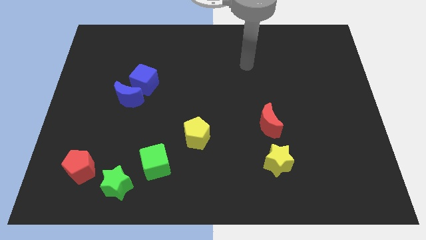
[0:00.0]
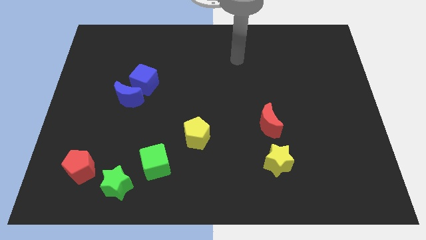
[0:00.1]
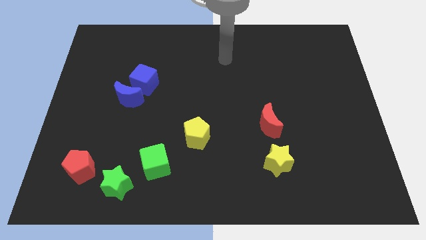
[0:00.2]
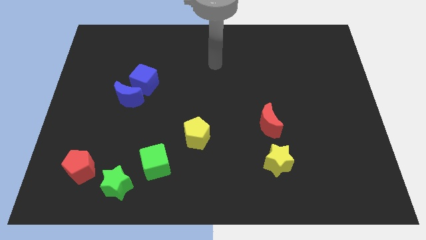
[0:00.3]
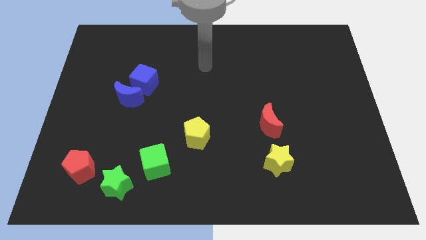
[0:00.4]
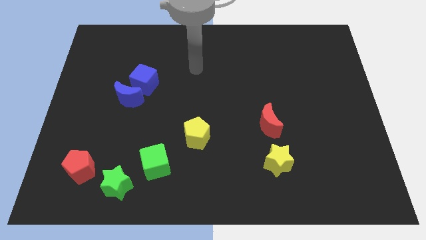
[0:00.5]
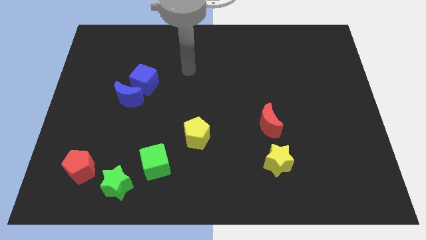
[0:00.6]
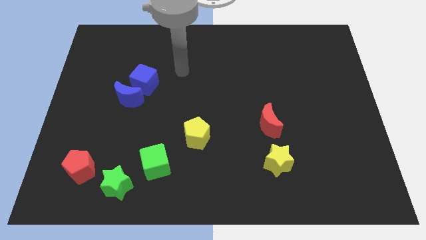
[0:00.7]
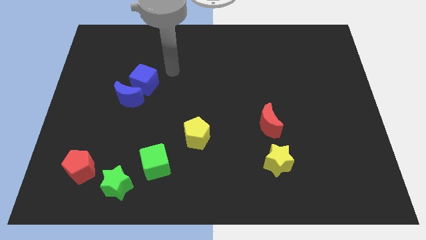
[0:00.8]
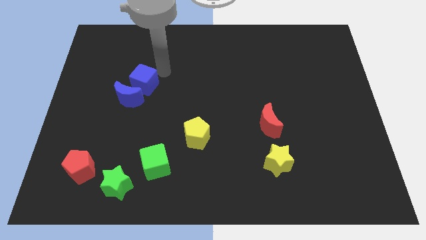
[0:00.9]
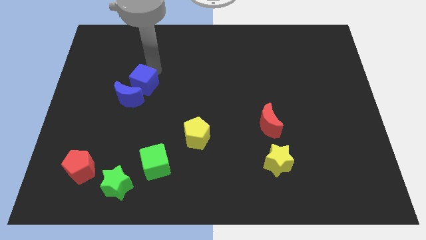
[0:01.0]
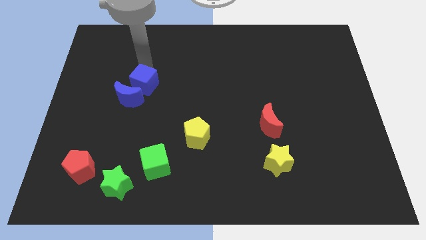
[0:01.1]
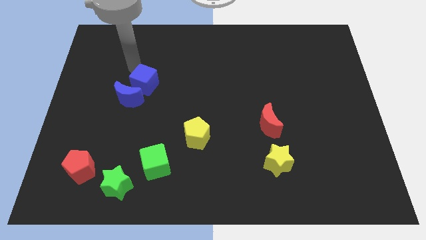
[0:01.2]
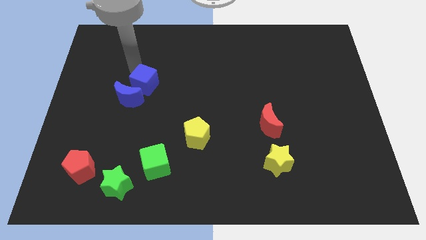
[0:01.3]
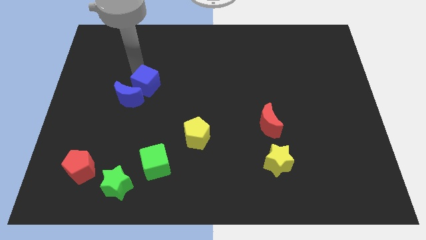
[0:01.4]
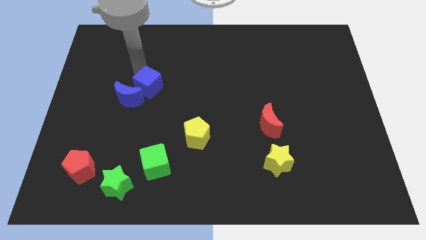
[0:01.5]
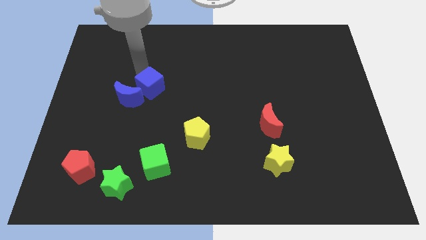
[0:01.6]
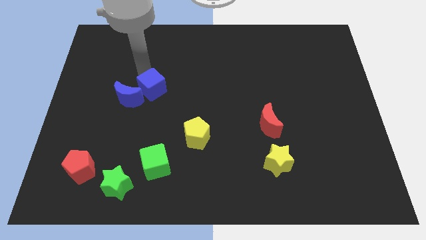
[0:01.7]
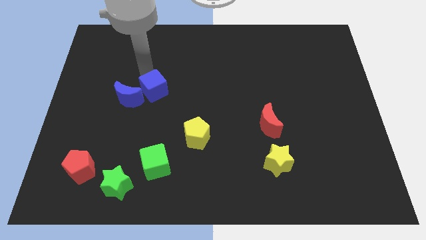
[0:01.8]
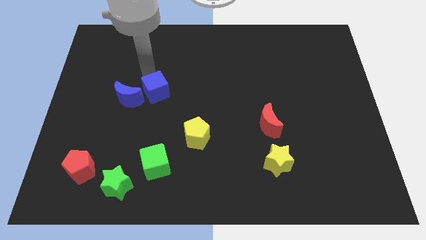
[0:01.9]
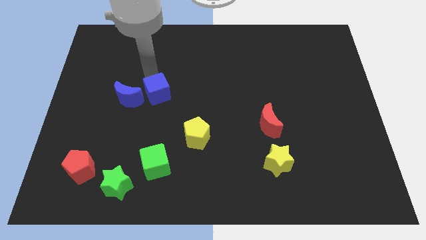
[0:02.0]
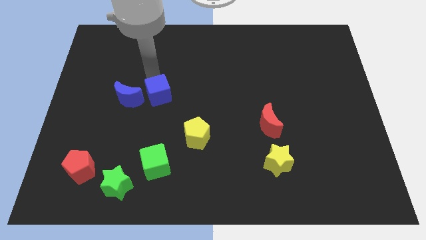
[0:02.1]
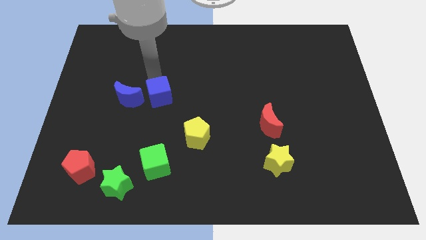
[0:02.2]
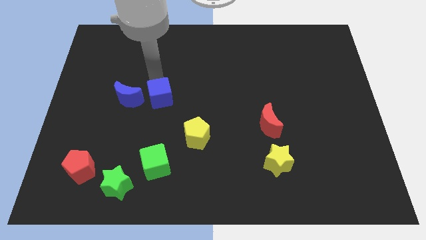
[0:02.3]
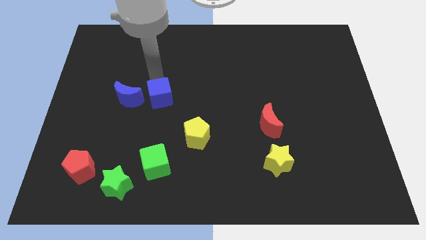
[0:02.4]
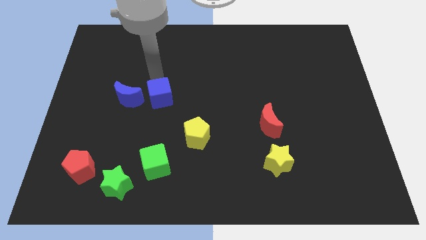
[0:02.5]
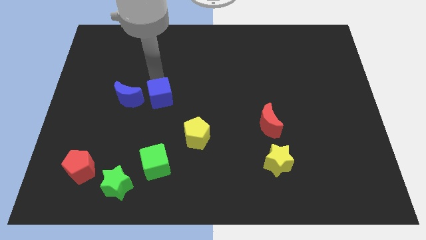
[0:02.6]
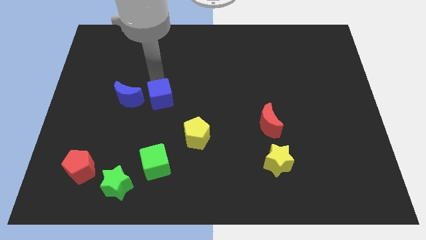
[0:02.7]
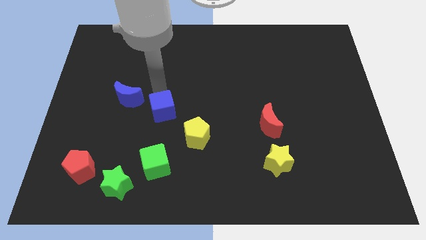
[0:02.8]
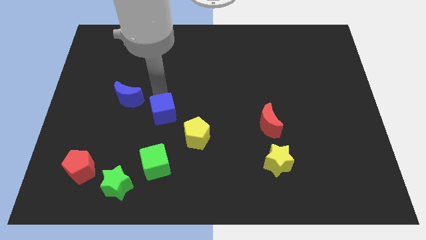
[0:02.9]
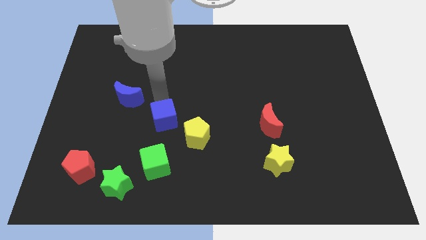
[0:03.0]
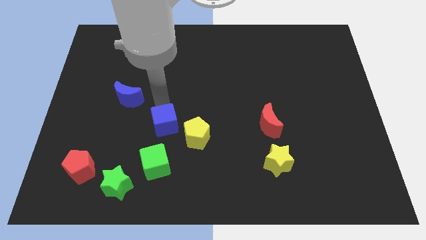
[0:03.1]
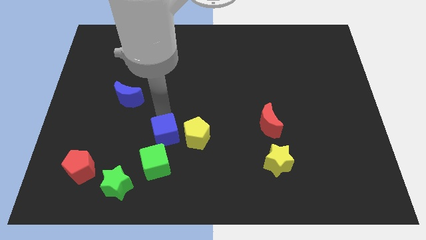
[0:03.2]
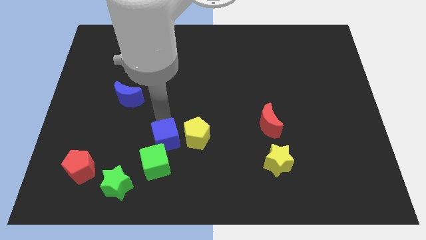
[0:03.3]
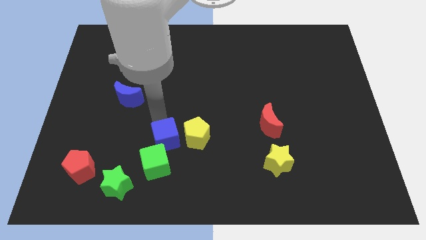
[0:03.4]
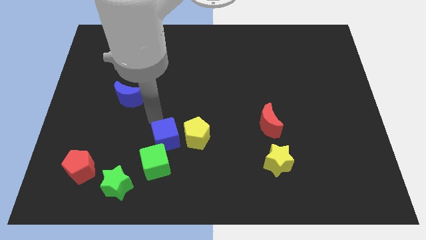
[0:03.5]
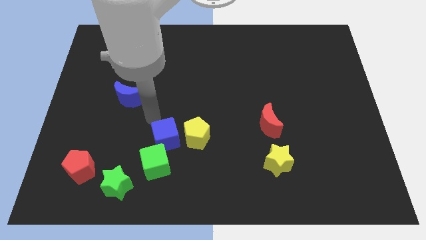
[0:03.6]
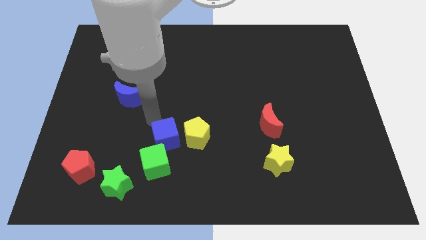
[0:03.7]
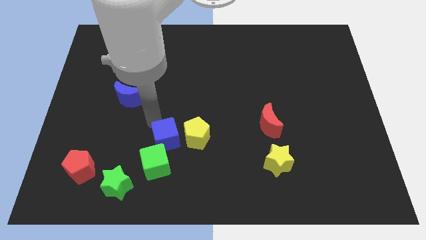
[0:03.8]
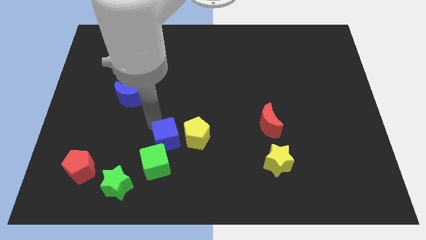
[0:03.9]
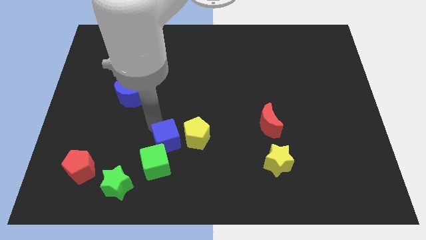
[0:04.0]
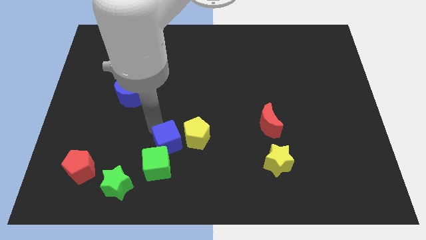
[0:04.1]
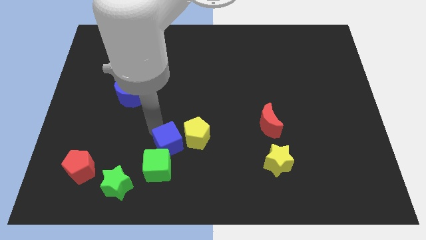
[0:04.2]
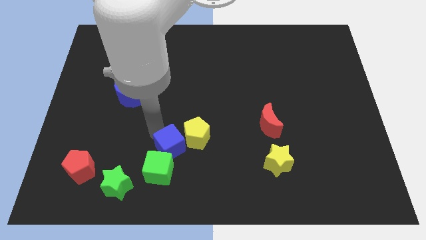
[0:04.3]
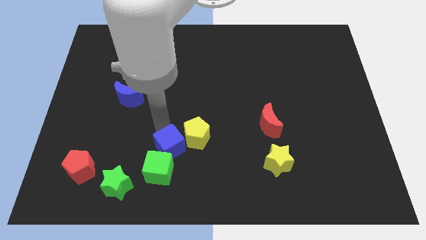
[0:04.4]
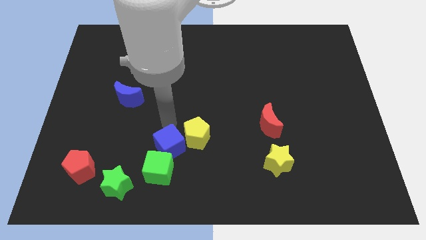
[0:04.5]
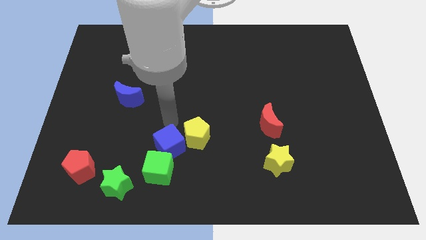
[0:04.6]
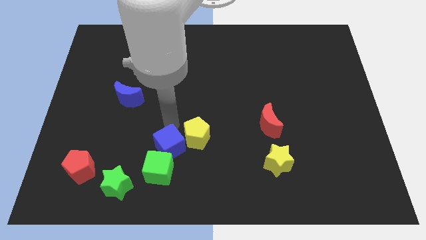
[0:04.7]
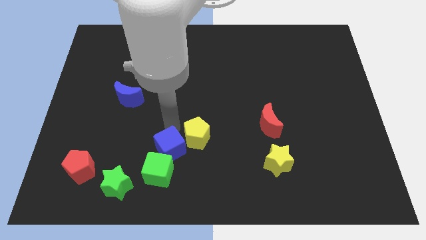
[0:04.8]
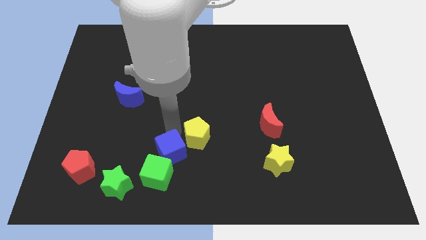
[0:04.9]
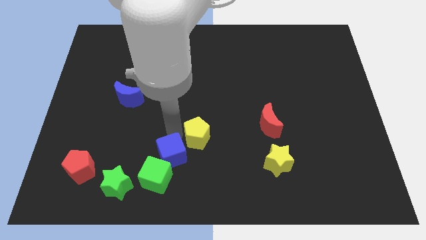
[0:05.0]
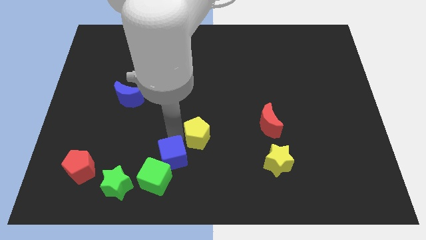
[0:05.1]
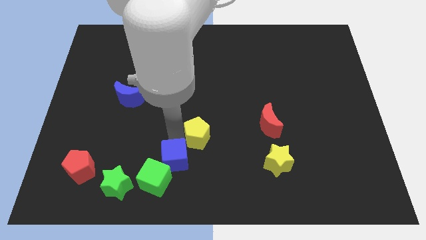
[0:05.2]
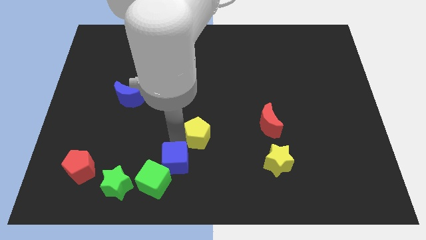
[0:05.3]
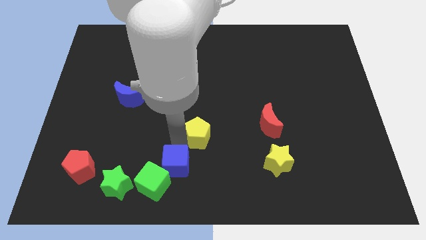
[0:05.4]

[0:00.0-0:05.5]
move the blue cube to the right of the green star
